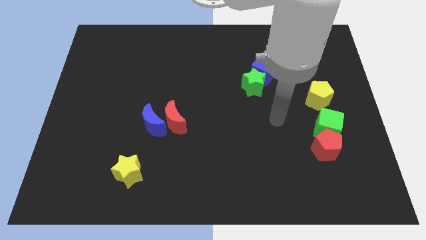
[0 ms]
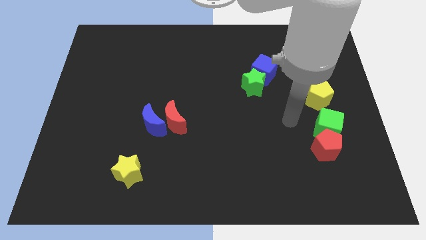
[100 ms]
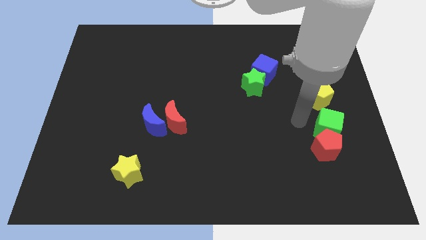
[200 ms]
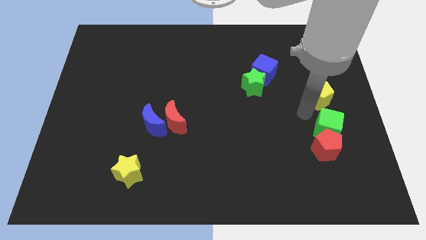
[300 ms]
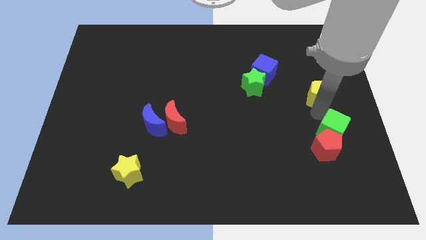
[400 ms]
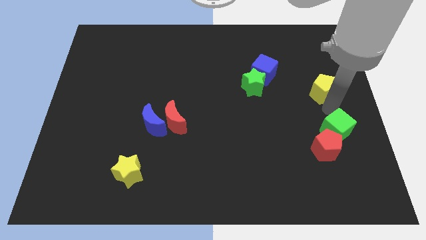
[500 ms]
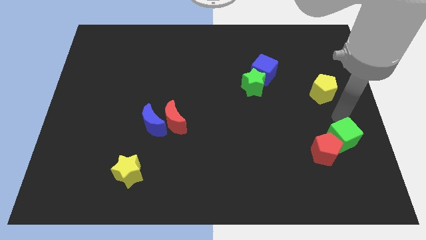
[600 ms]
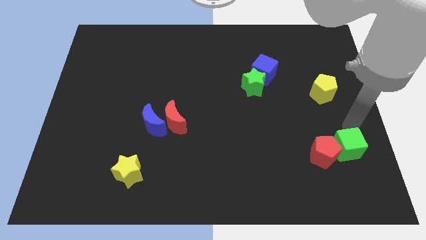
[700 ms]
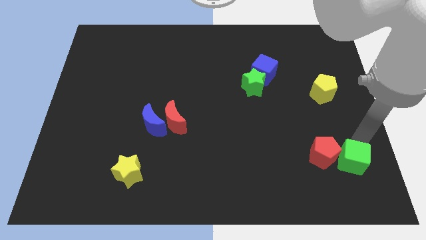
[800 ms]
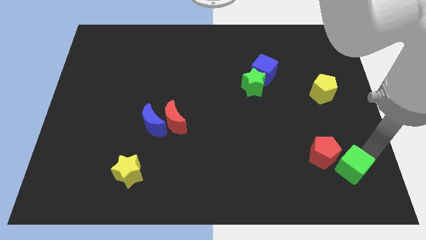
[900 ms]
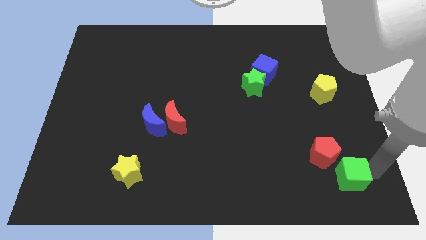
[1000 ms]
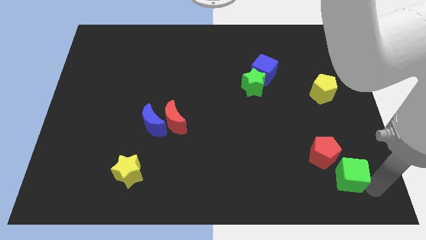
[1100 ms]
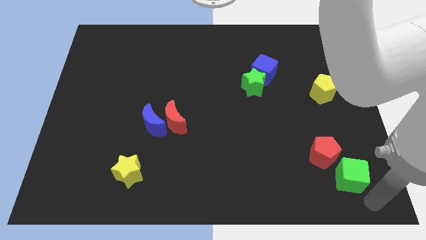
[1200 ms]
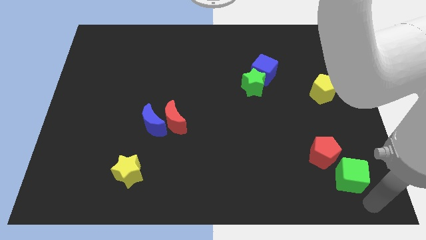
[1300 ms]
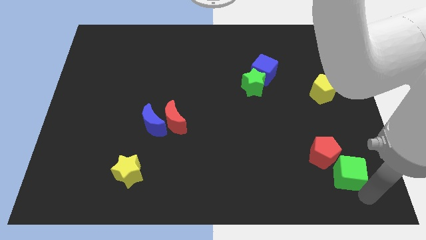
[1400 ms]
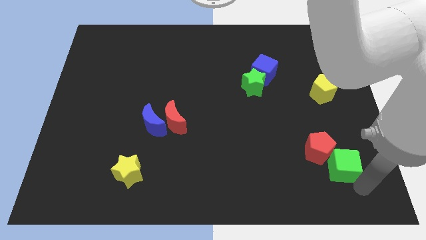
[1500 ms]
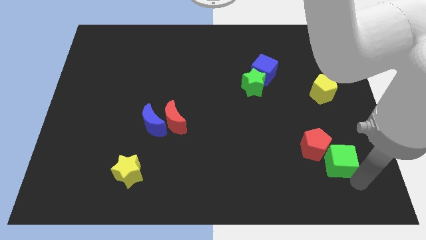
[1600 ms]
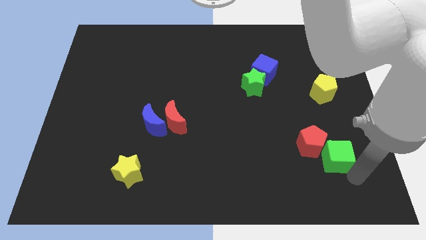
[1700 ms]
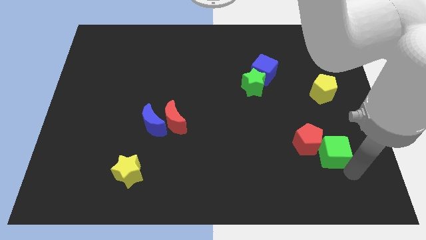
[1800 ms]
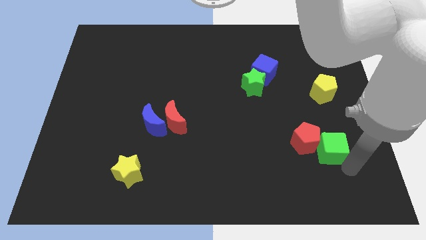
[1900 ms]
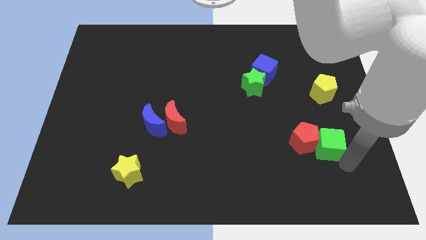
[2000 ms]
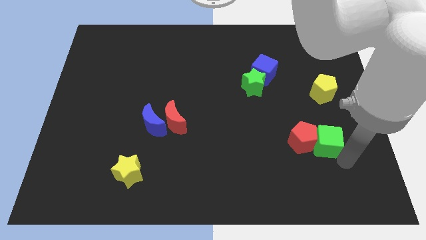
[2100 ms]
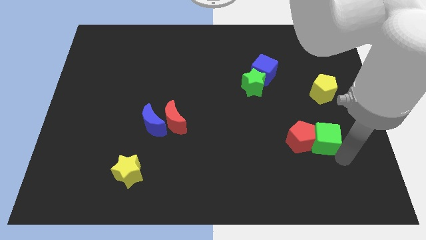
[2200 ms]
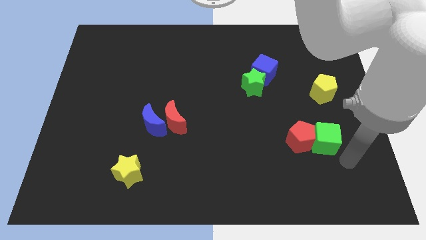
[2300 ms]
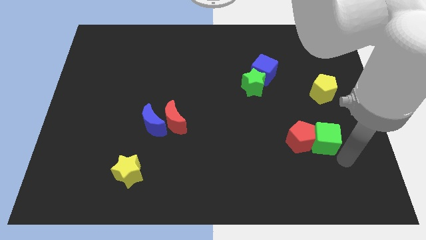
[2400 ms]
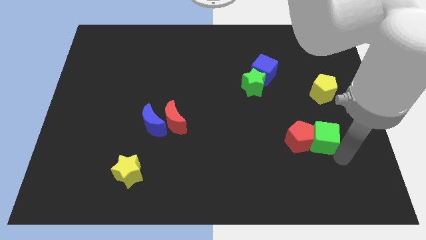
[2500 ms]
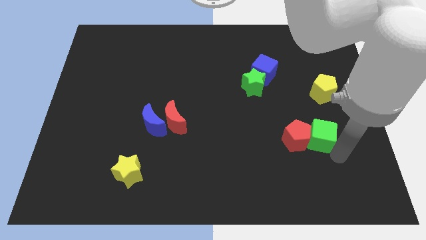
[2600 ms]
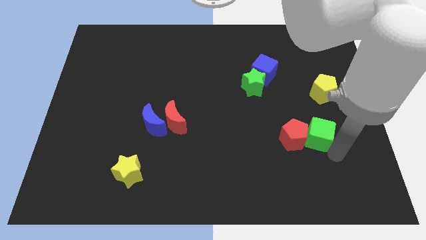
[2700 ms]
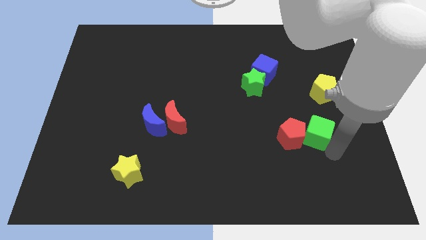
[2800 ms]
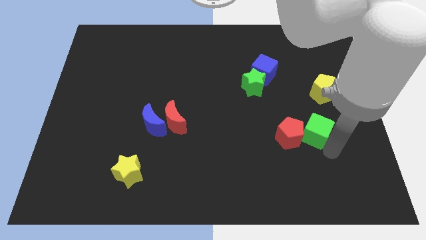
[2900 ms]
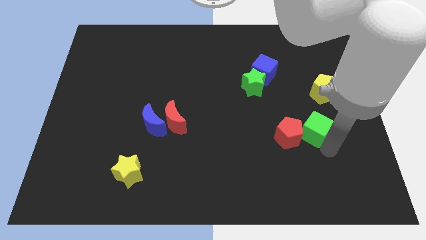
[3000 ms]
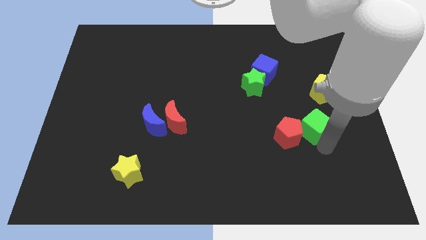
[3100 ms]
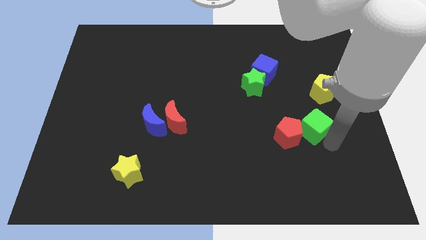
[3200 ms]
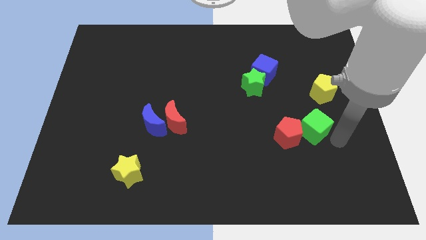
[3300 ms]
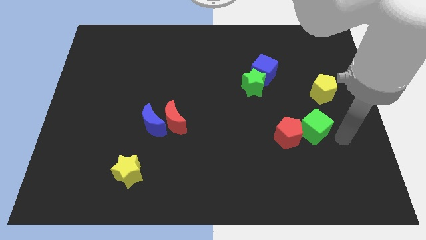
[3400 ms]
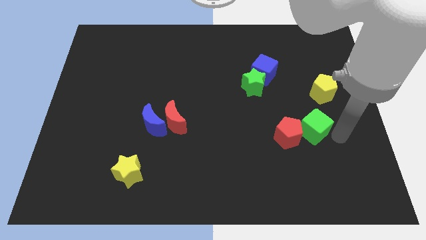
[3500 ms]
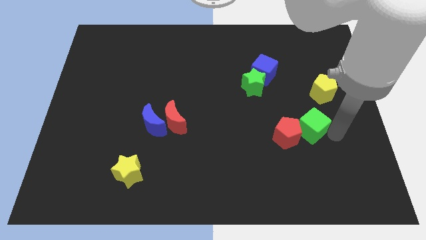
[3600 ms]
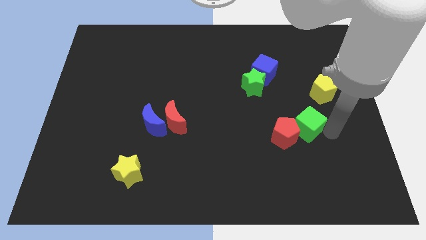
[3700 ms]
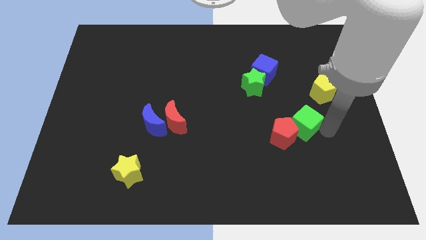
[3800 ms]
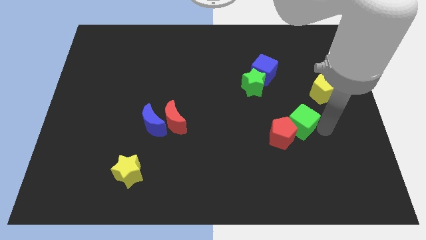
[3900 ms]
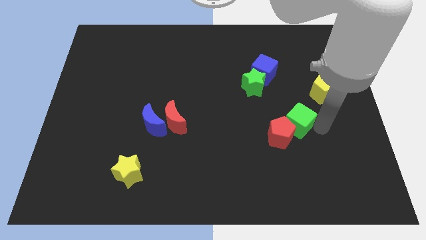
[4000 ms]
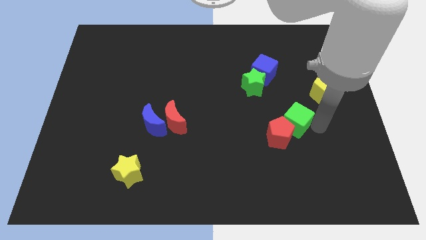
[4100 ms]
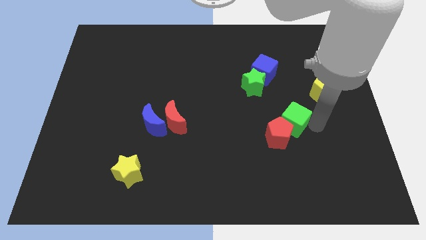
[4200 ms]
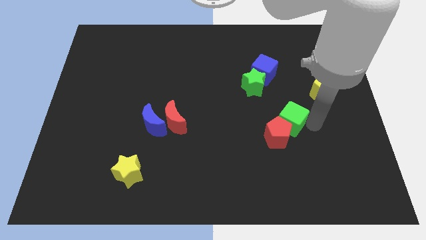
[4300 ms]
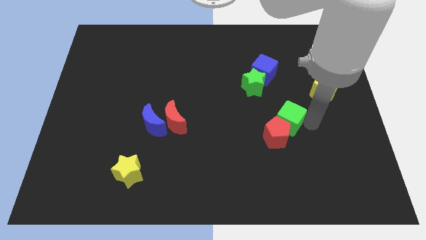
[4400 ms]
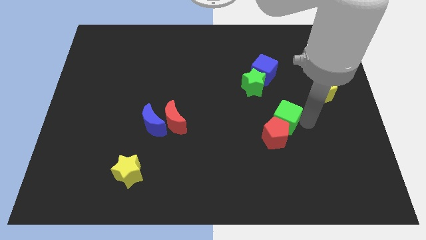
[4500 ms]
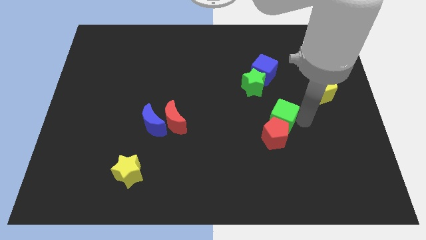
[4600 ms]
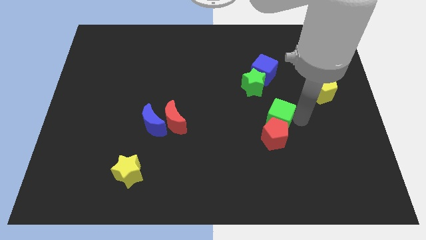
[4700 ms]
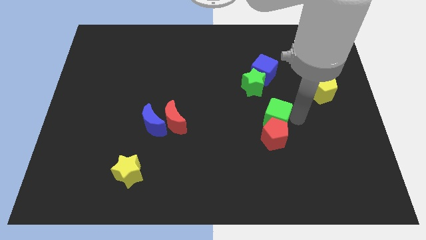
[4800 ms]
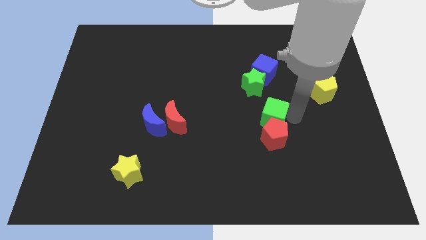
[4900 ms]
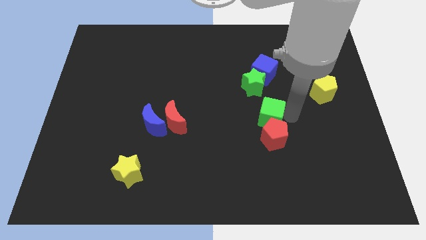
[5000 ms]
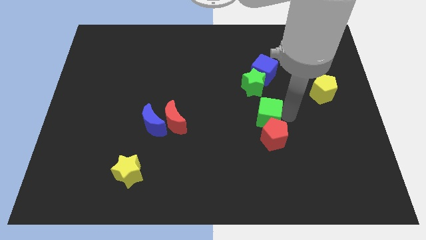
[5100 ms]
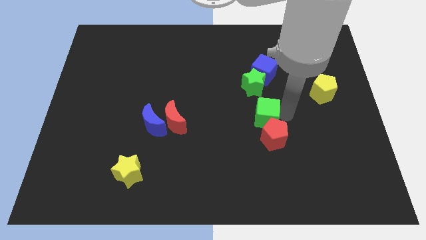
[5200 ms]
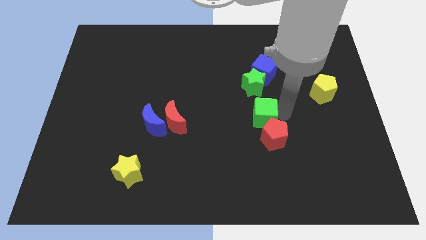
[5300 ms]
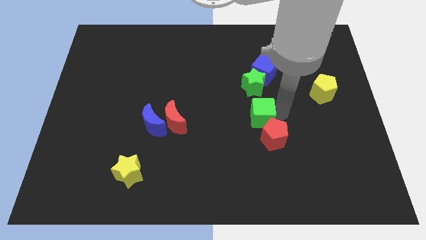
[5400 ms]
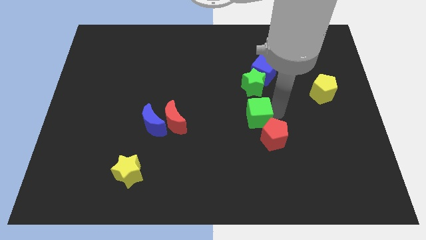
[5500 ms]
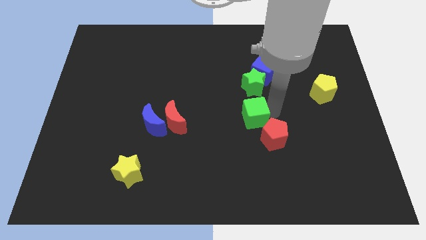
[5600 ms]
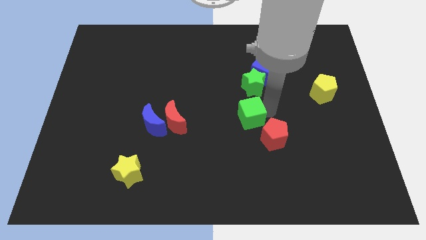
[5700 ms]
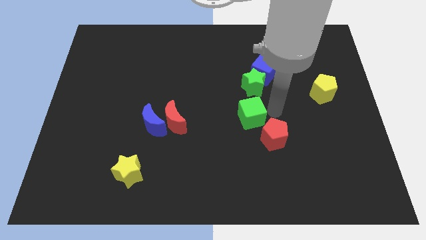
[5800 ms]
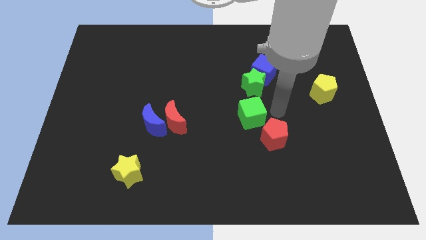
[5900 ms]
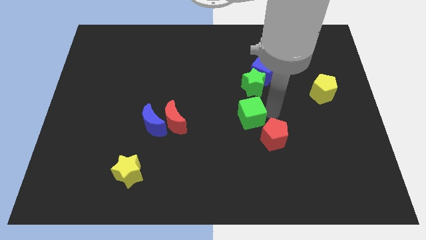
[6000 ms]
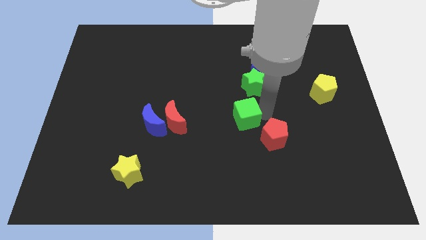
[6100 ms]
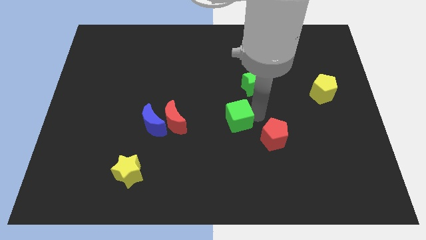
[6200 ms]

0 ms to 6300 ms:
push the green cube right of the red moon

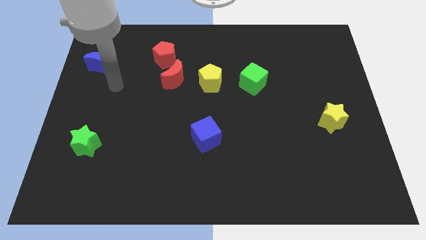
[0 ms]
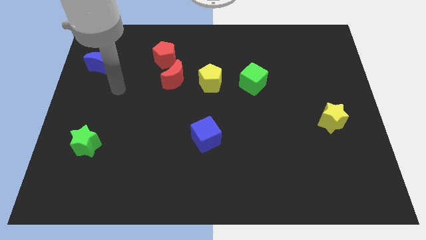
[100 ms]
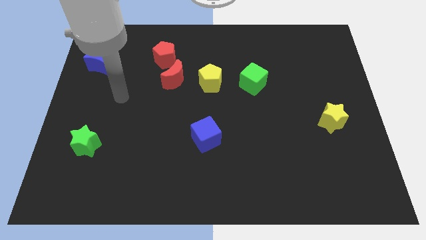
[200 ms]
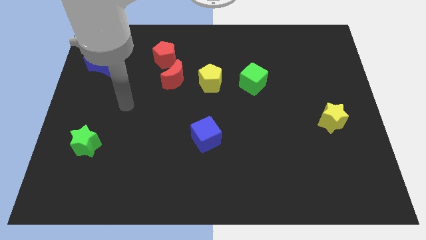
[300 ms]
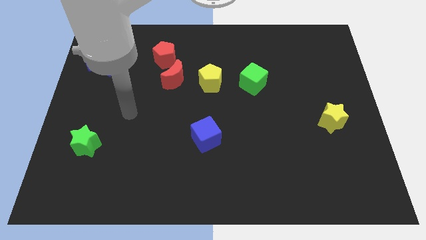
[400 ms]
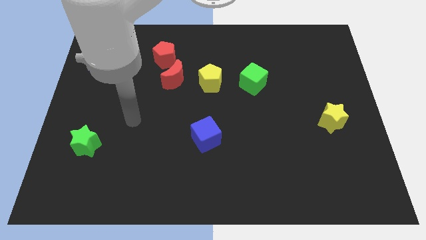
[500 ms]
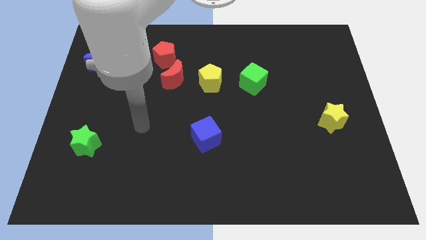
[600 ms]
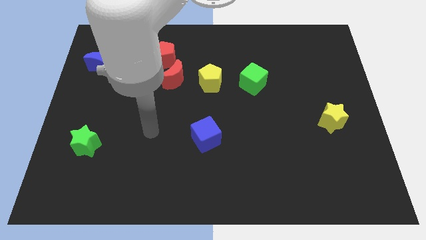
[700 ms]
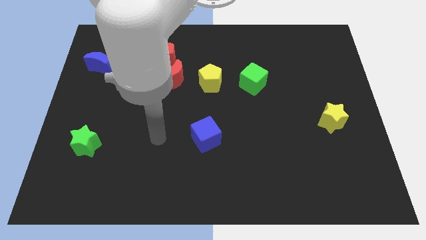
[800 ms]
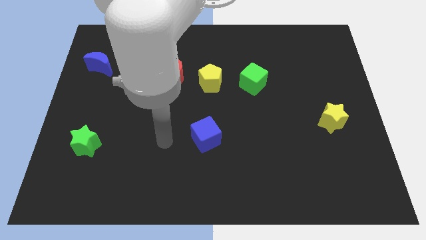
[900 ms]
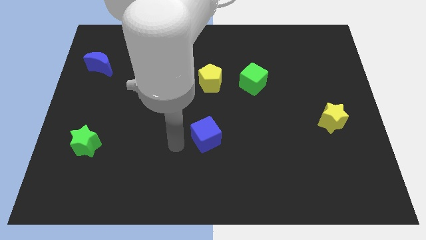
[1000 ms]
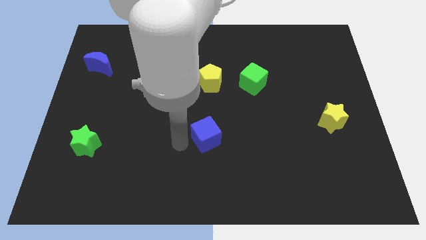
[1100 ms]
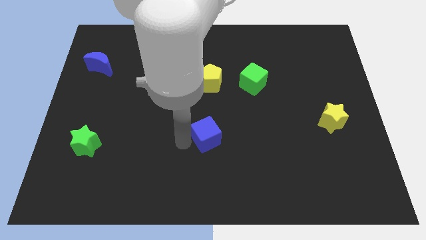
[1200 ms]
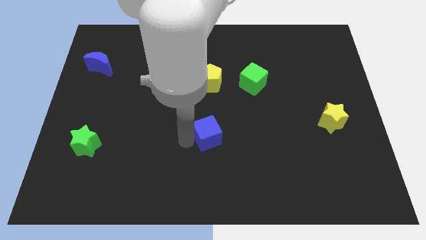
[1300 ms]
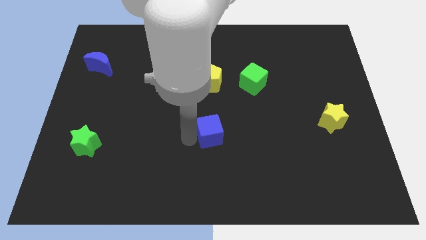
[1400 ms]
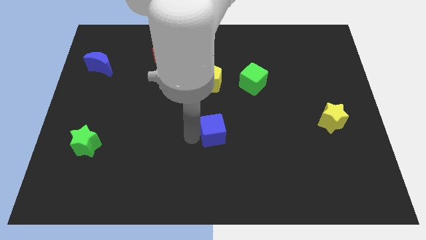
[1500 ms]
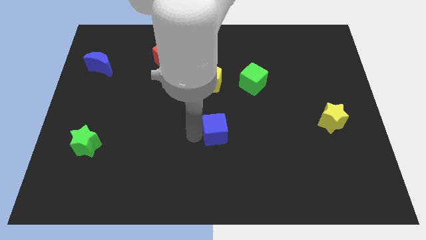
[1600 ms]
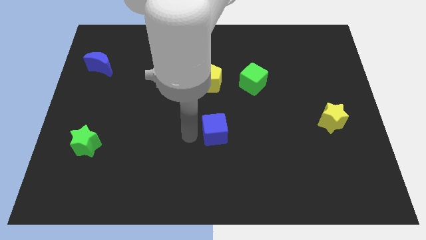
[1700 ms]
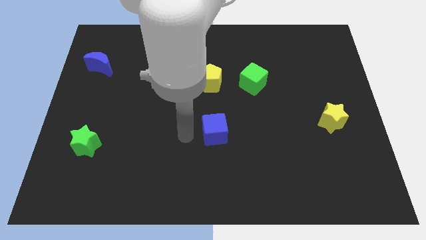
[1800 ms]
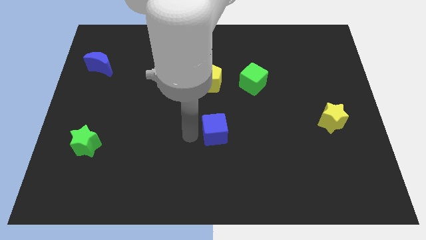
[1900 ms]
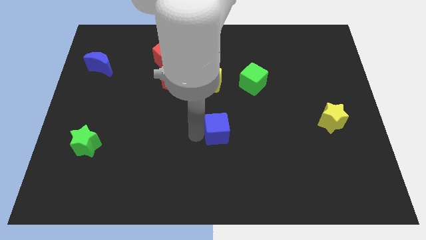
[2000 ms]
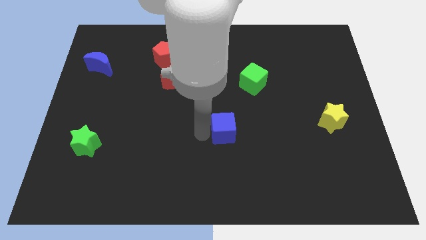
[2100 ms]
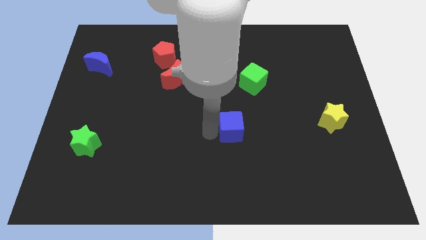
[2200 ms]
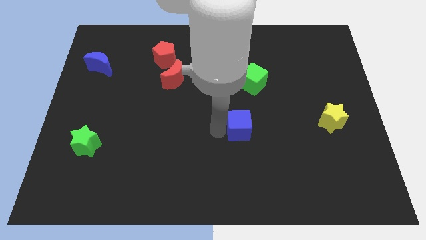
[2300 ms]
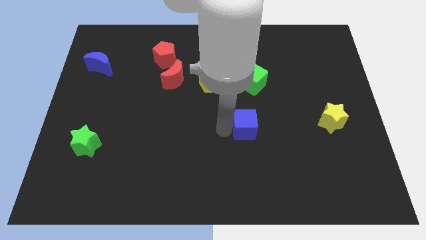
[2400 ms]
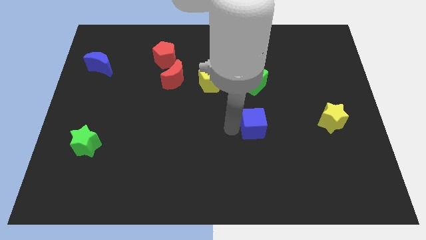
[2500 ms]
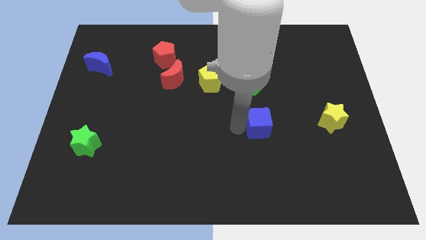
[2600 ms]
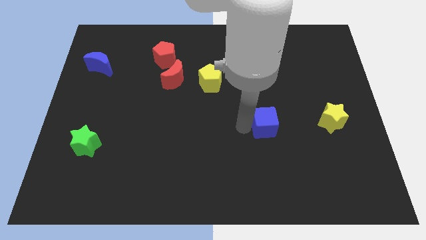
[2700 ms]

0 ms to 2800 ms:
put the blue cube left of the yellow star
